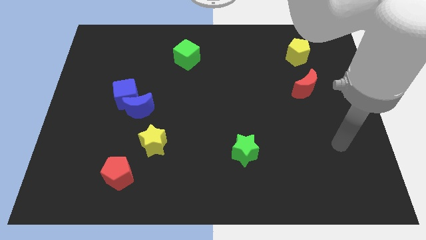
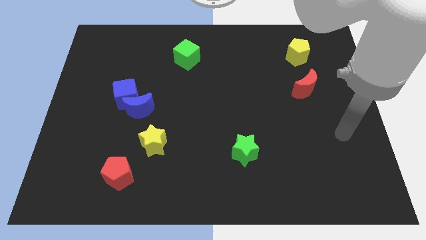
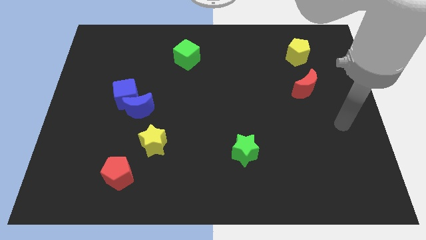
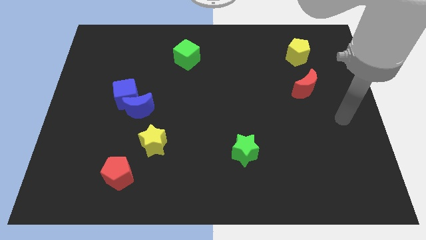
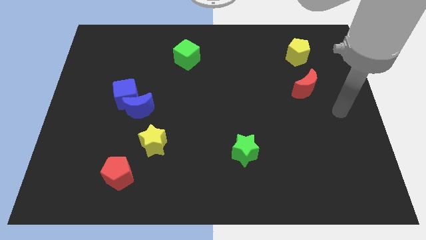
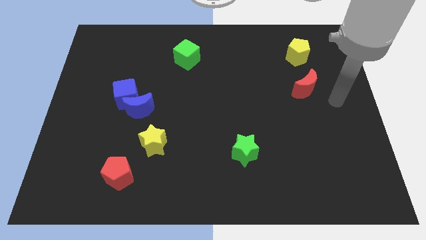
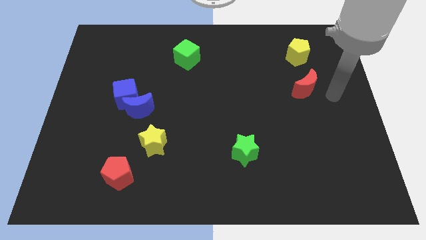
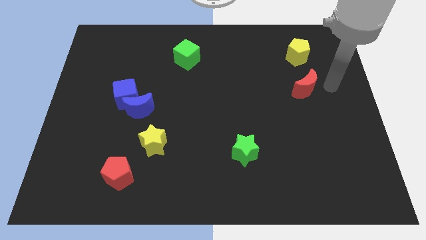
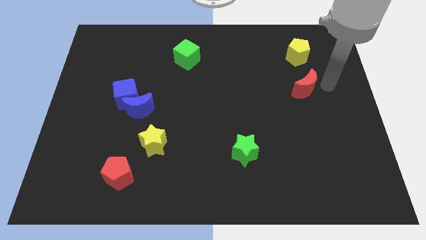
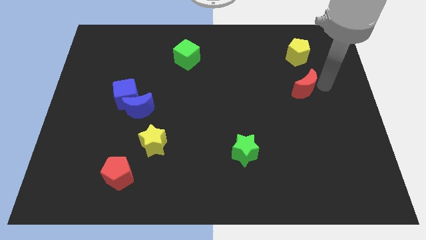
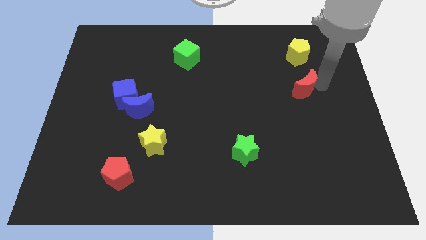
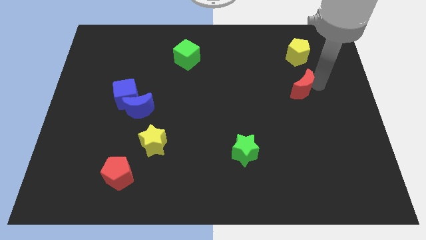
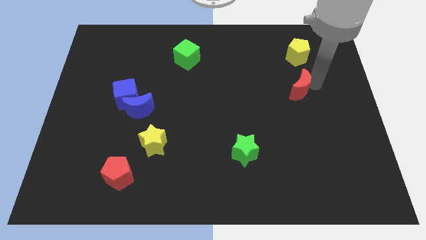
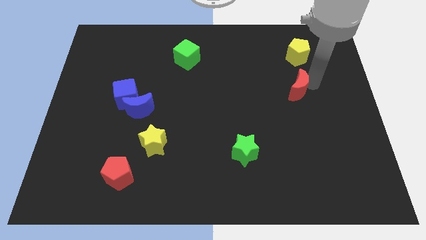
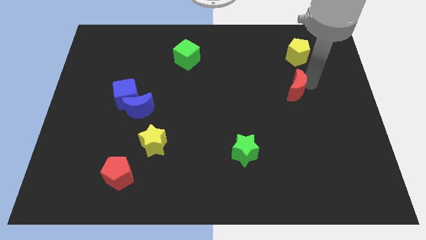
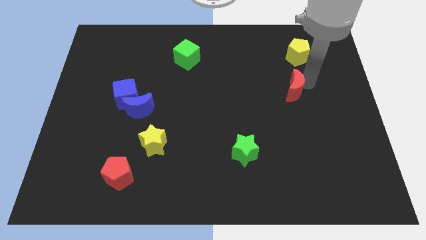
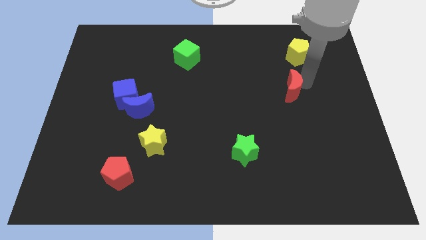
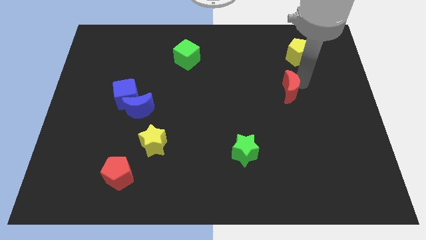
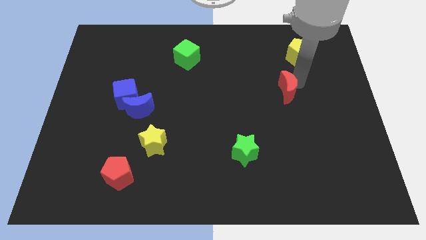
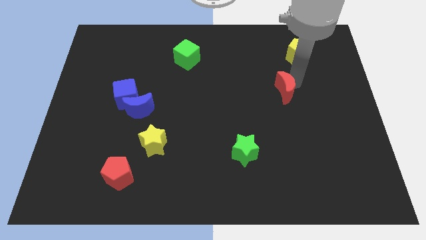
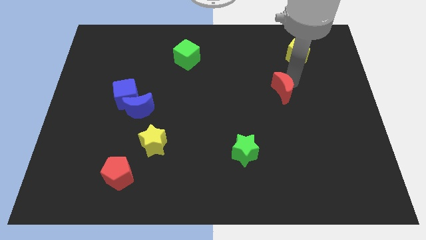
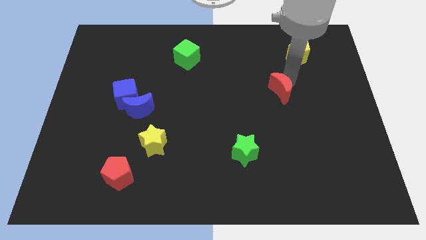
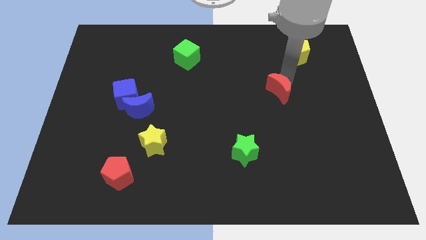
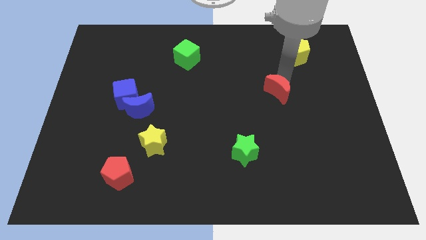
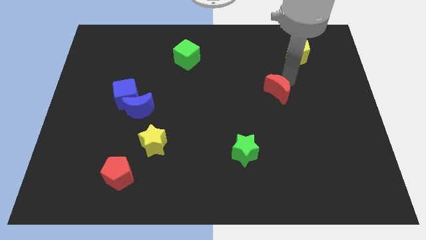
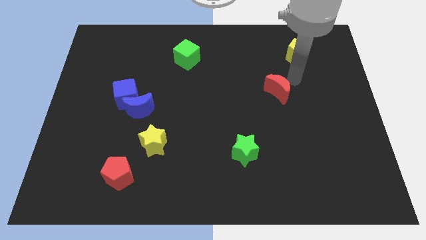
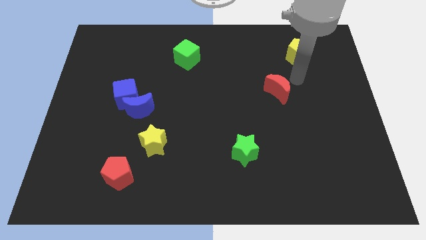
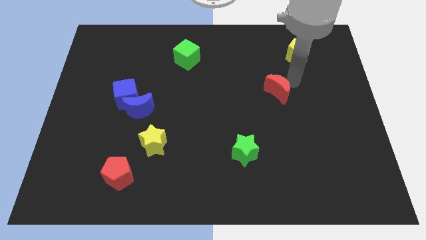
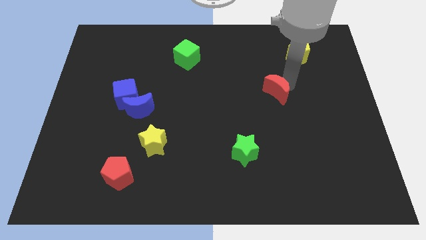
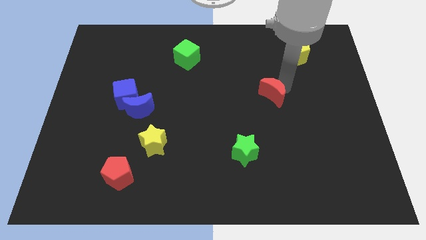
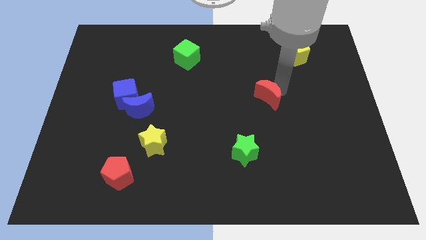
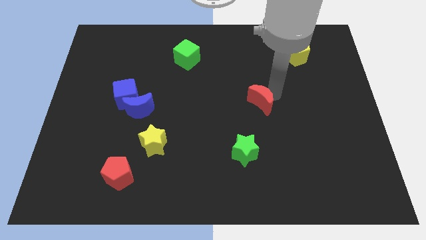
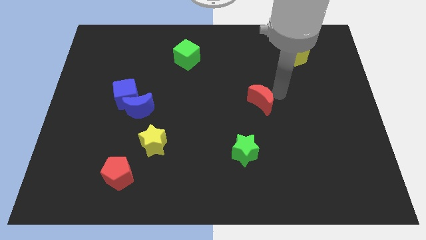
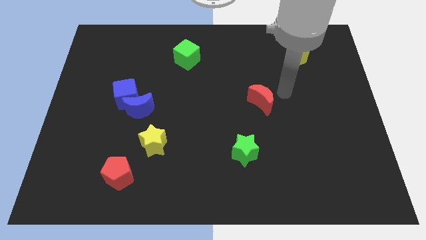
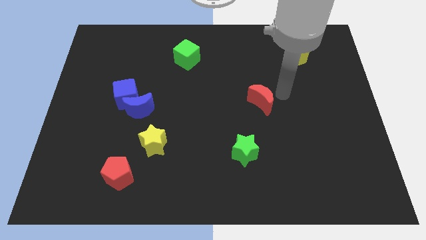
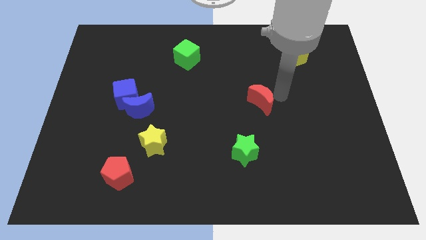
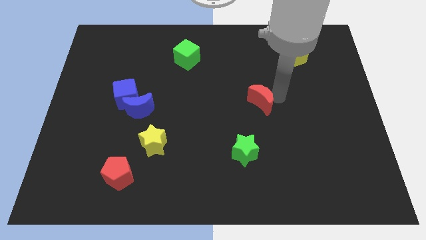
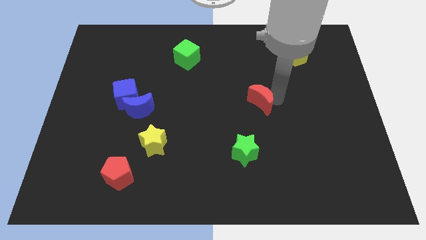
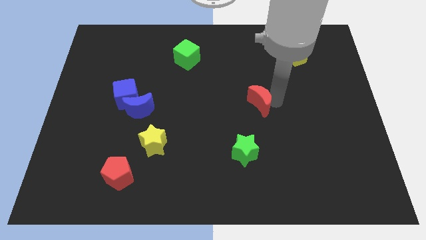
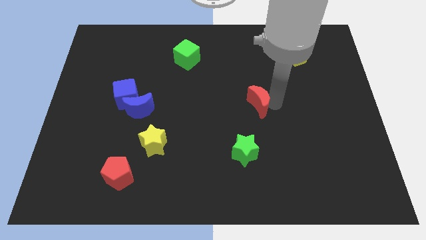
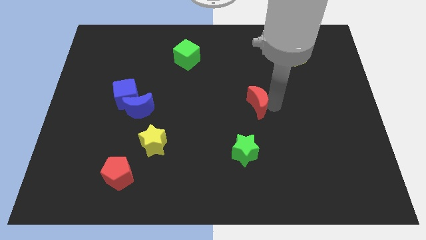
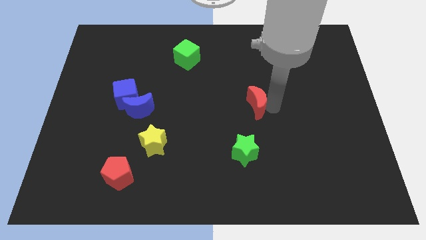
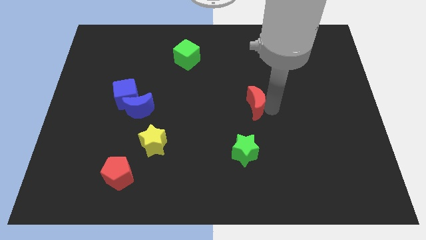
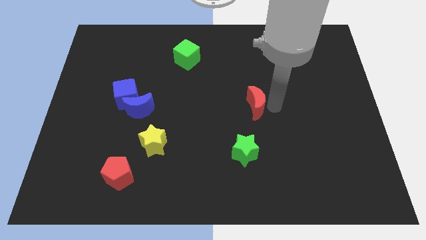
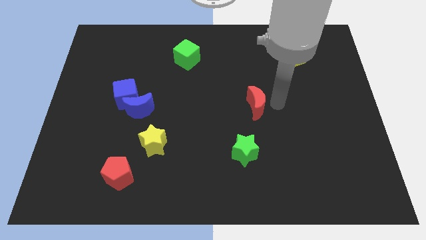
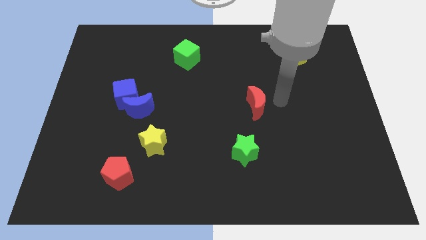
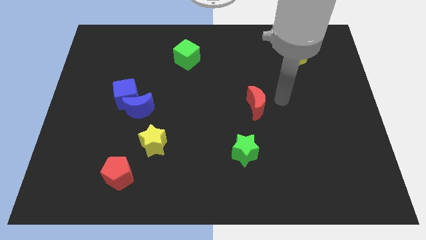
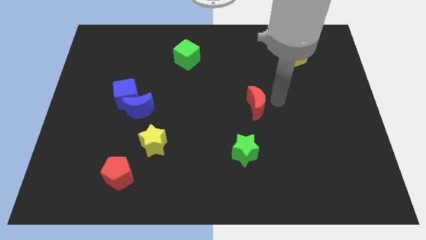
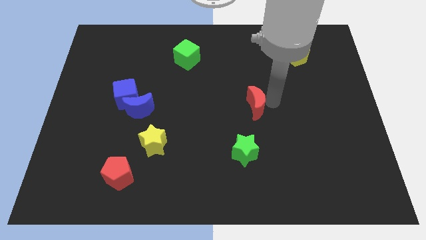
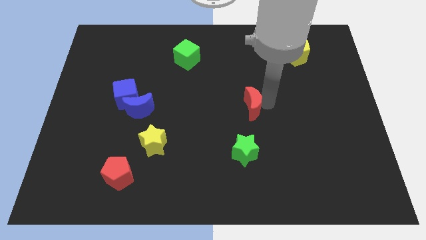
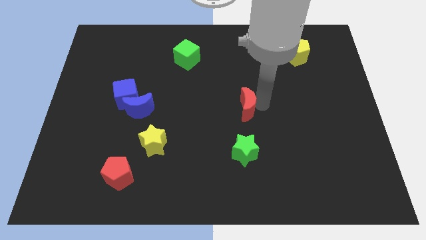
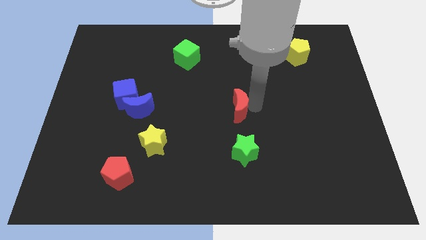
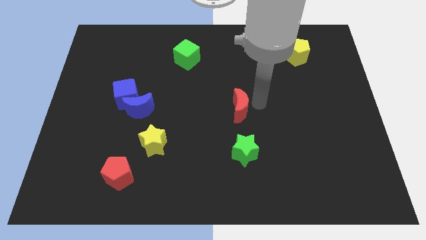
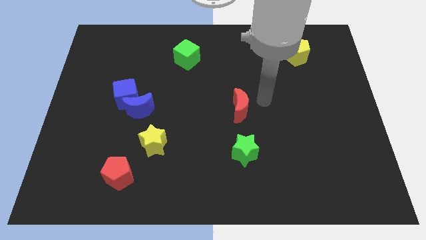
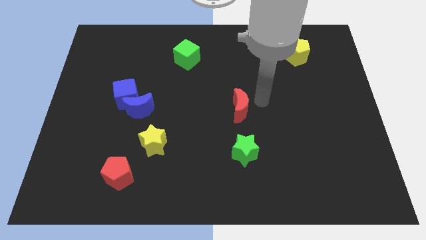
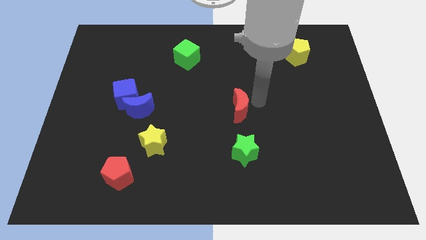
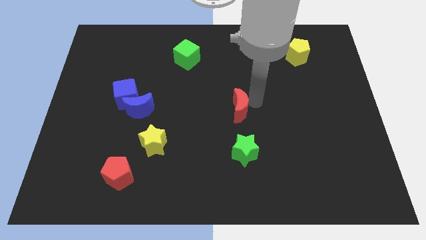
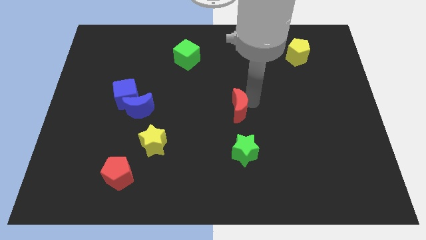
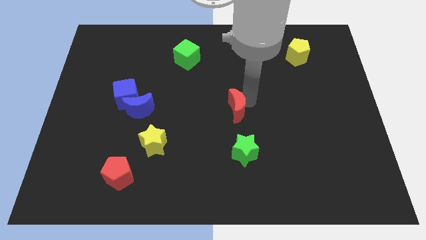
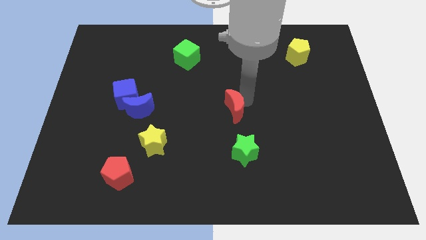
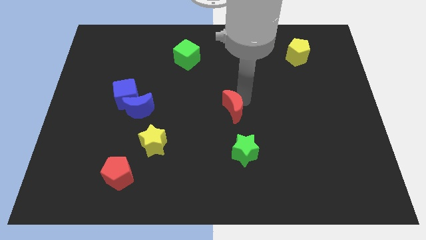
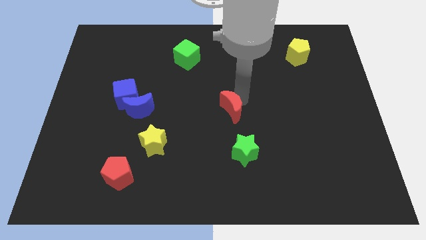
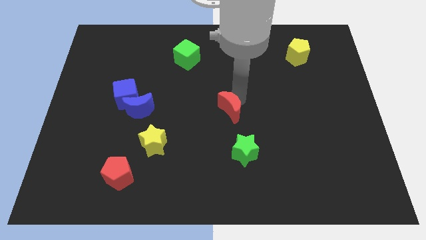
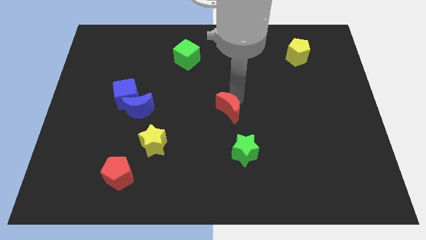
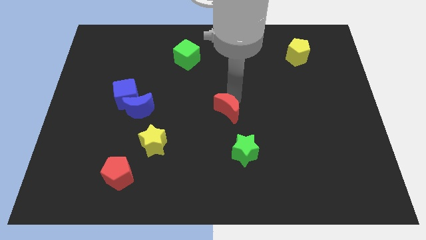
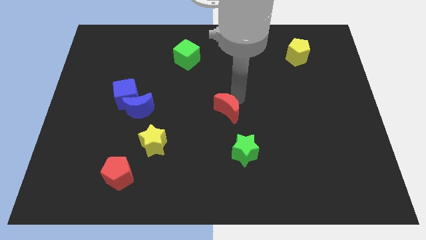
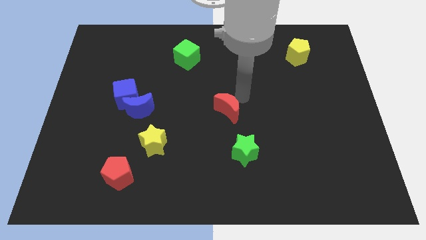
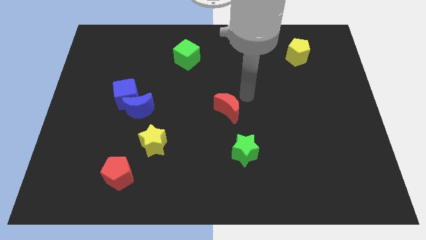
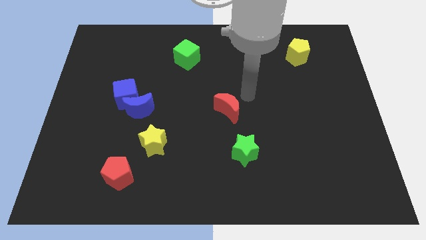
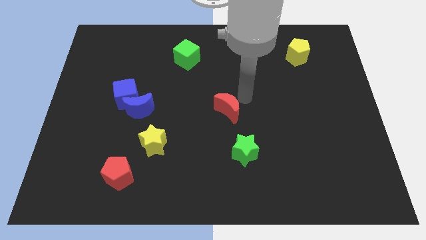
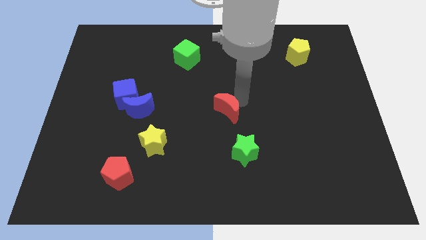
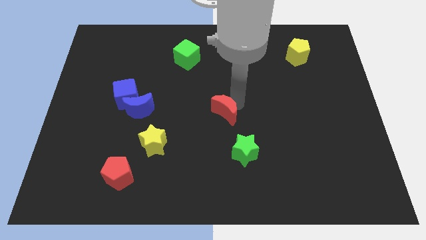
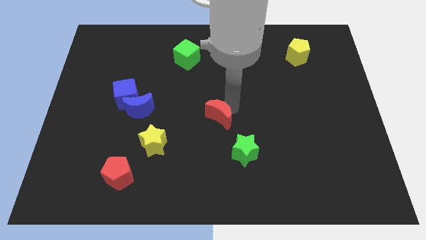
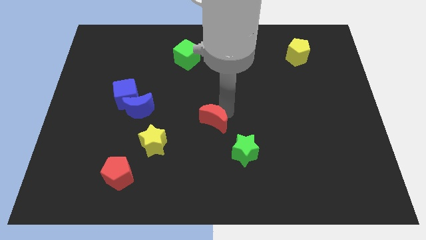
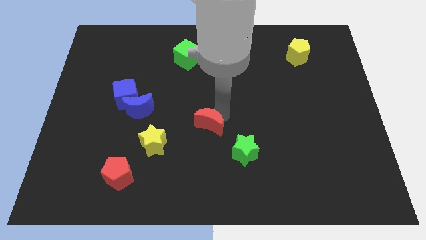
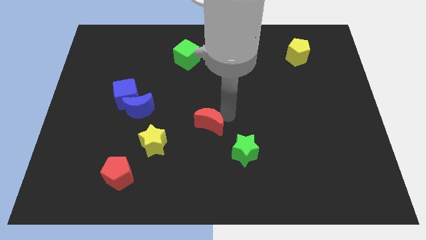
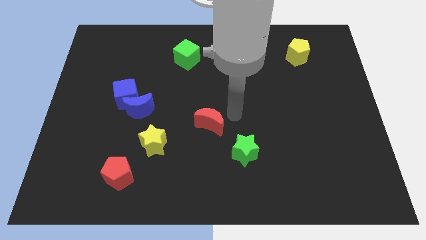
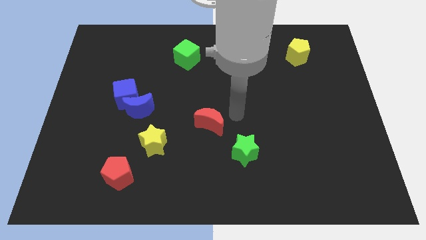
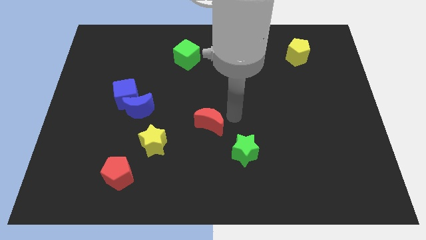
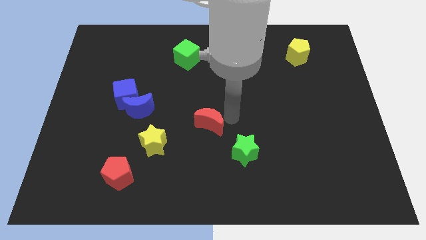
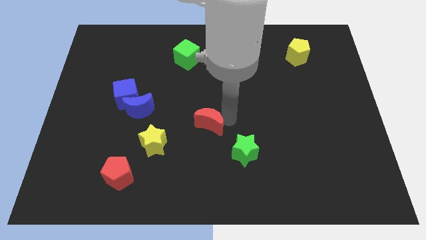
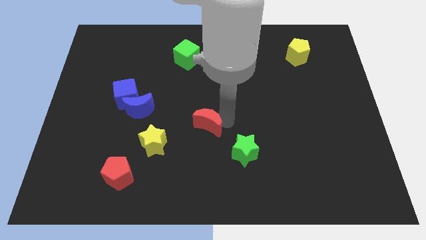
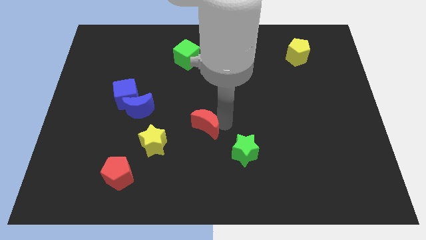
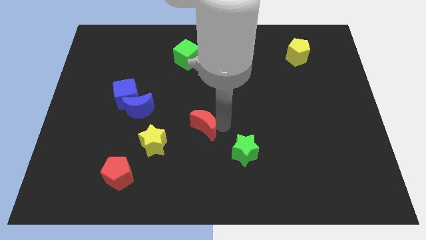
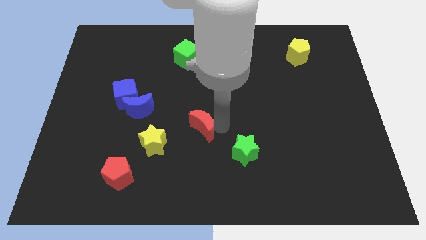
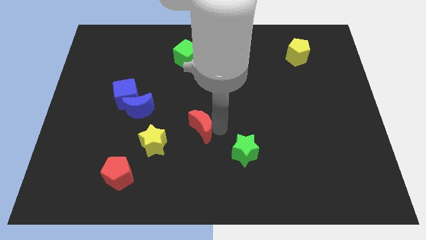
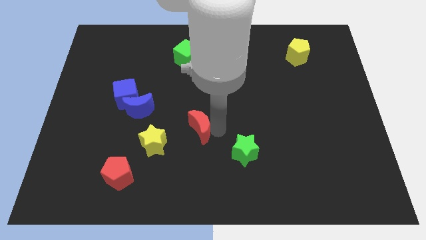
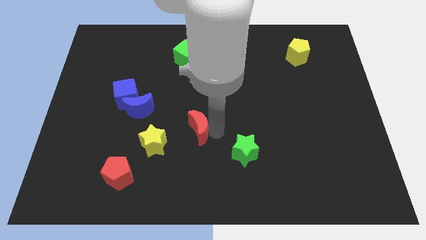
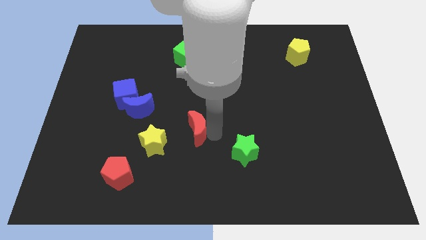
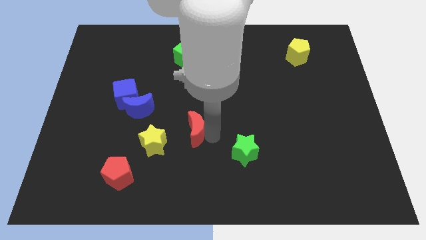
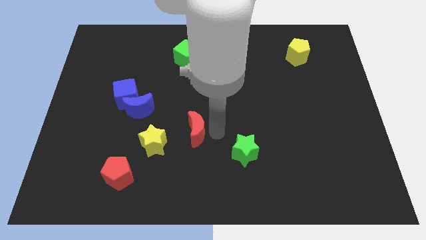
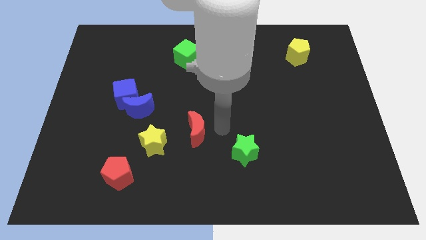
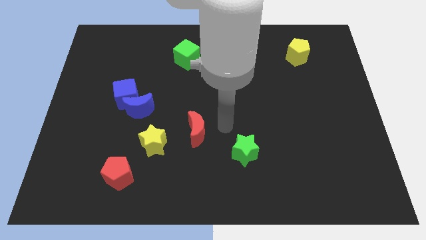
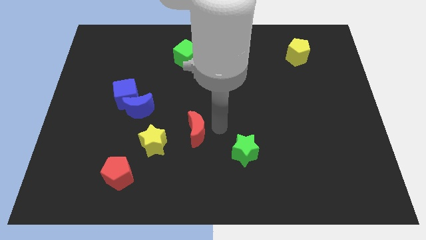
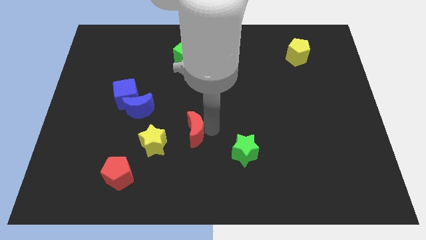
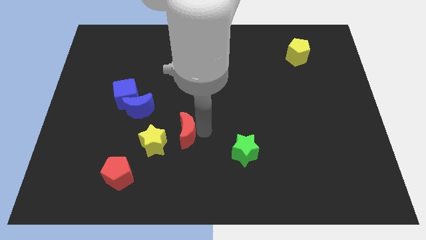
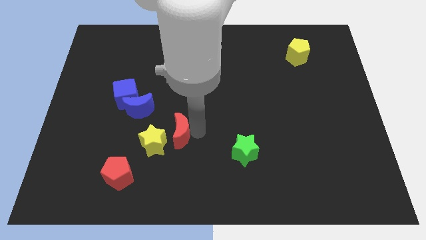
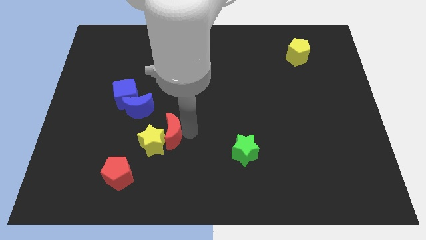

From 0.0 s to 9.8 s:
move the red moon towards the yellow star
